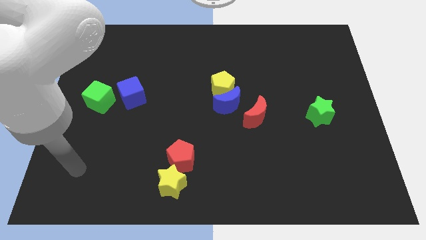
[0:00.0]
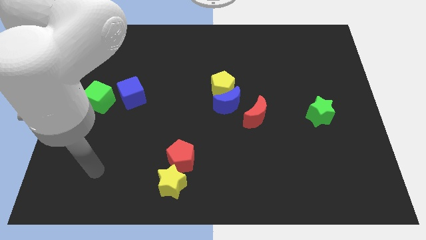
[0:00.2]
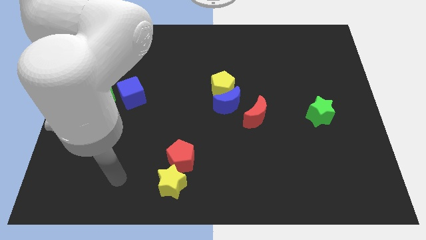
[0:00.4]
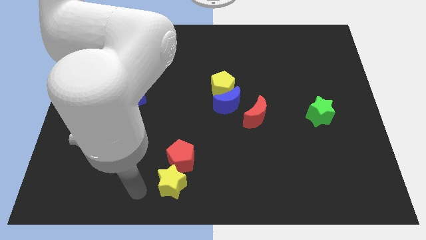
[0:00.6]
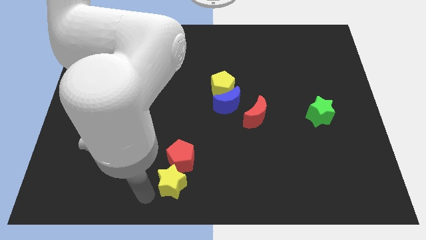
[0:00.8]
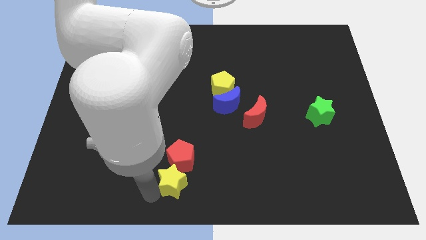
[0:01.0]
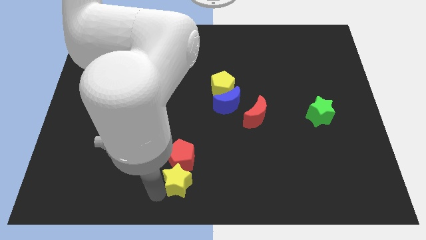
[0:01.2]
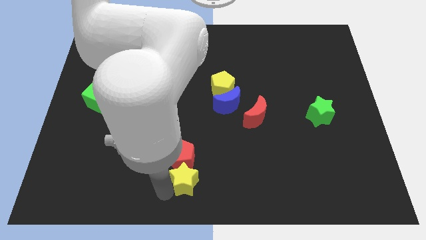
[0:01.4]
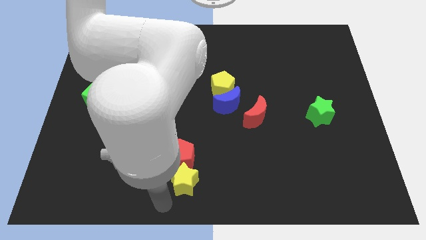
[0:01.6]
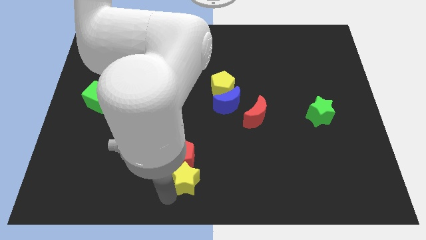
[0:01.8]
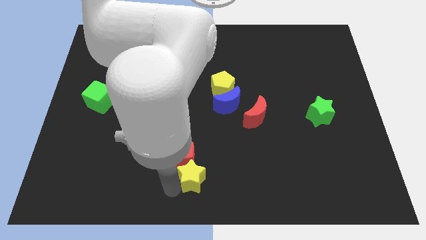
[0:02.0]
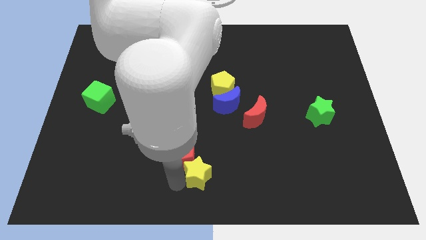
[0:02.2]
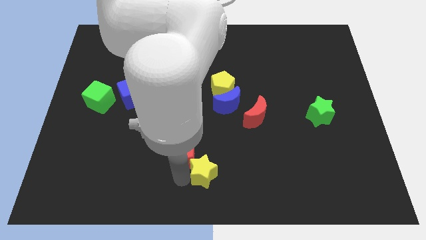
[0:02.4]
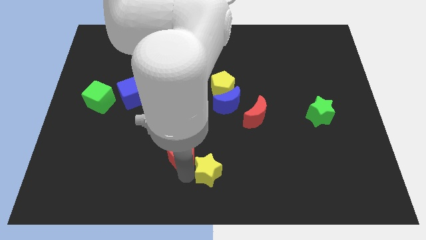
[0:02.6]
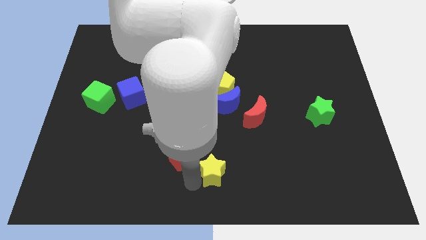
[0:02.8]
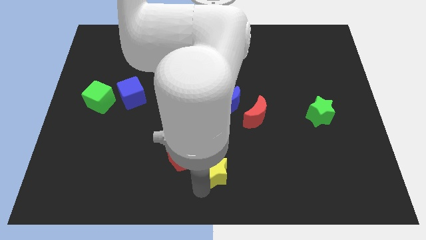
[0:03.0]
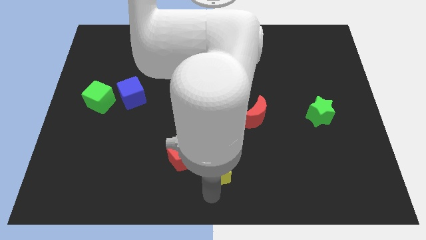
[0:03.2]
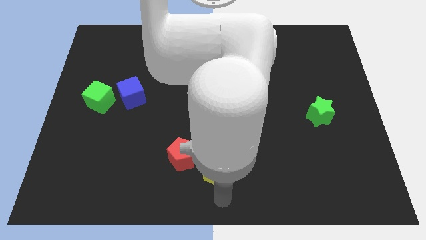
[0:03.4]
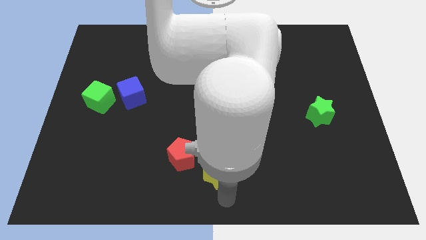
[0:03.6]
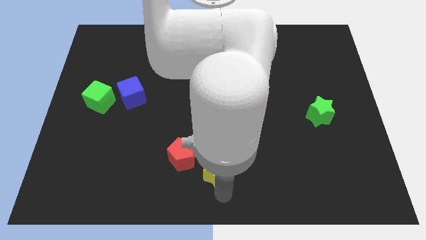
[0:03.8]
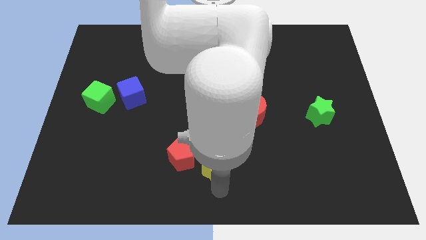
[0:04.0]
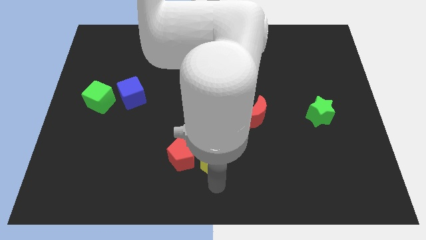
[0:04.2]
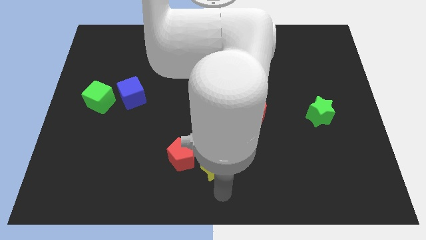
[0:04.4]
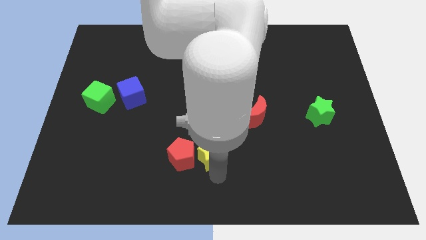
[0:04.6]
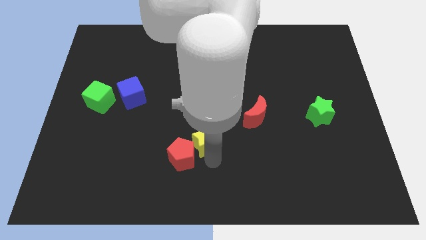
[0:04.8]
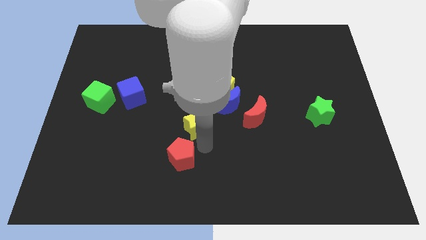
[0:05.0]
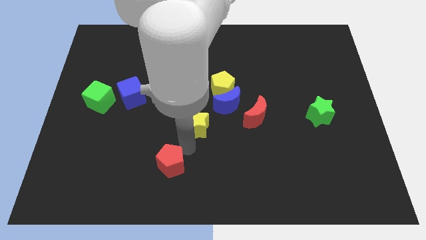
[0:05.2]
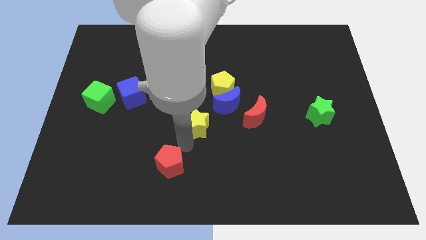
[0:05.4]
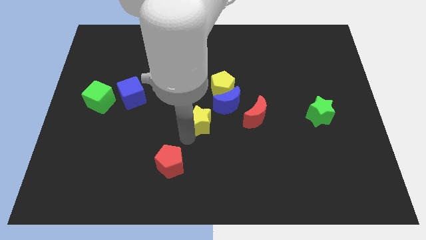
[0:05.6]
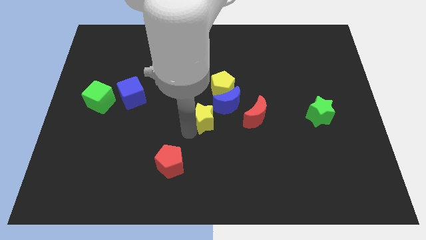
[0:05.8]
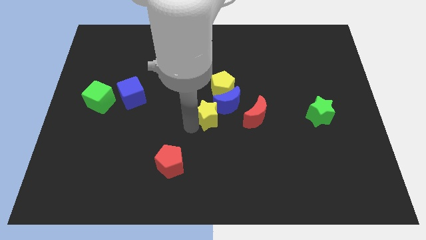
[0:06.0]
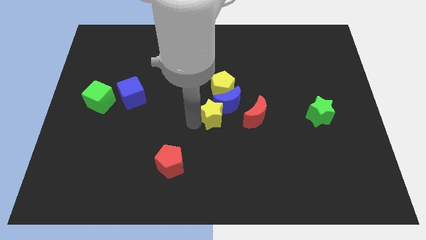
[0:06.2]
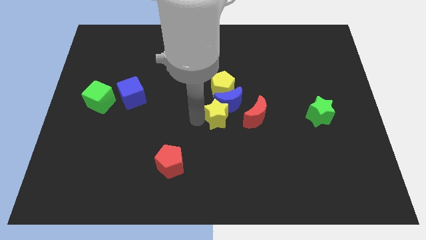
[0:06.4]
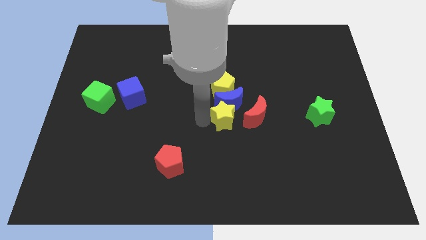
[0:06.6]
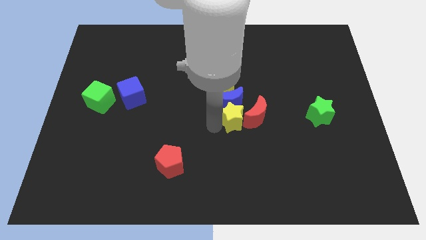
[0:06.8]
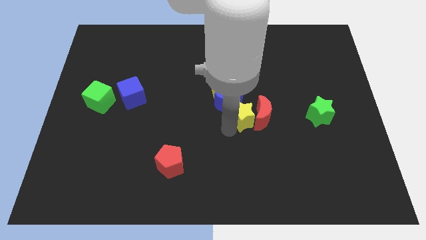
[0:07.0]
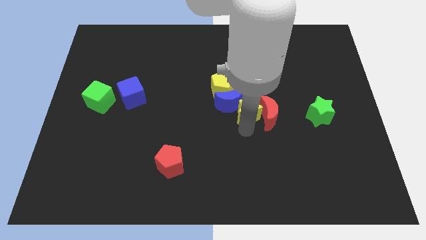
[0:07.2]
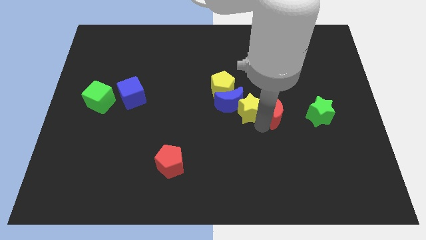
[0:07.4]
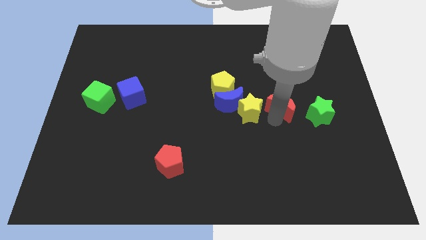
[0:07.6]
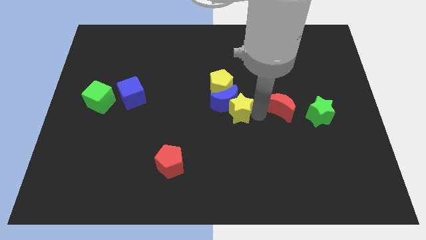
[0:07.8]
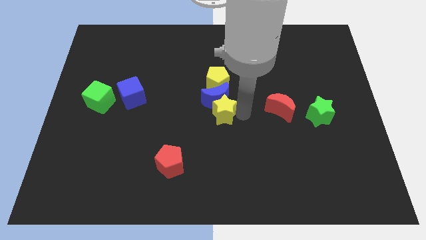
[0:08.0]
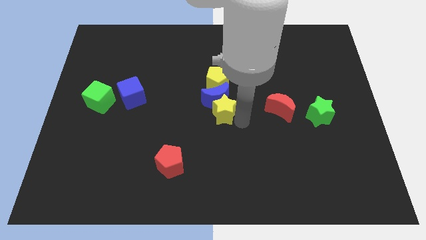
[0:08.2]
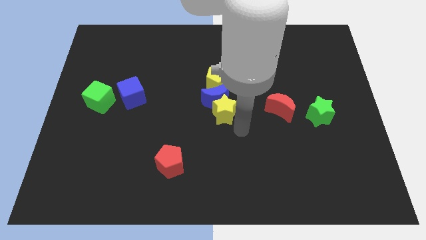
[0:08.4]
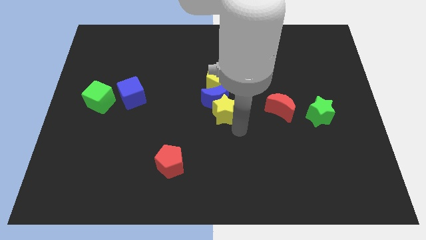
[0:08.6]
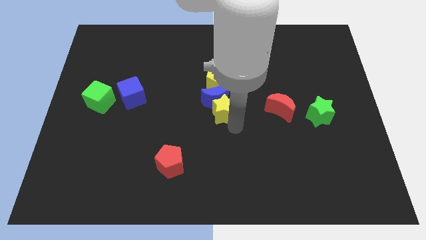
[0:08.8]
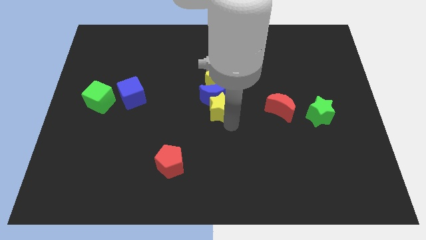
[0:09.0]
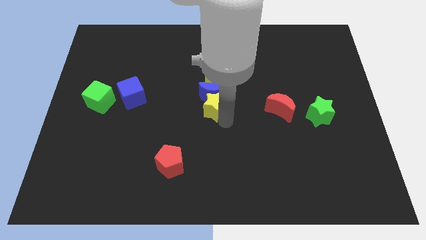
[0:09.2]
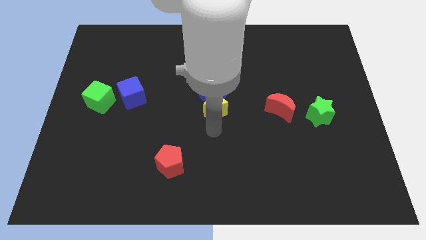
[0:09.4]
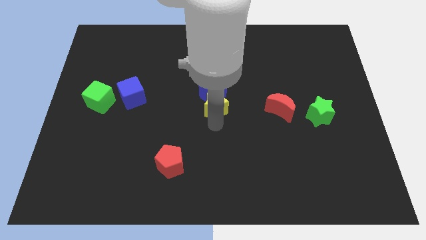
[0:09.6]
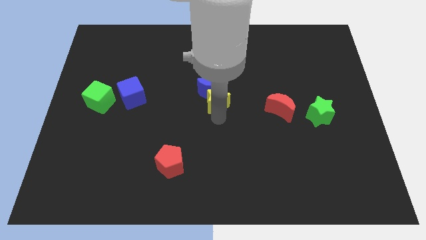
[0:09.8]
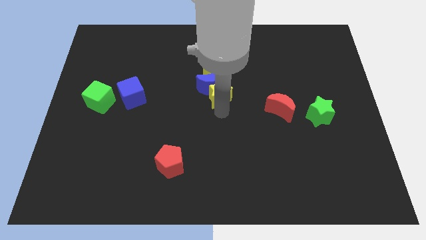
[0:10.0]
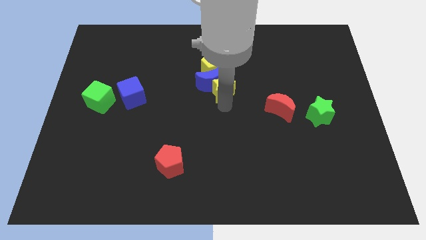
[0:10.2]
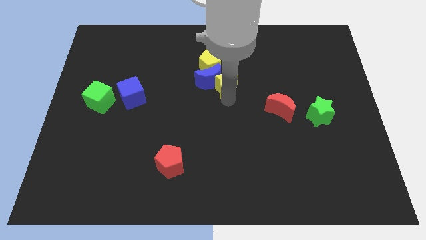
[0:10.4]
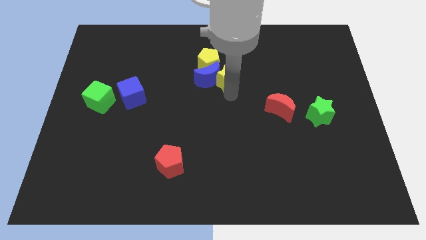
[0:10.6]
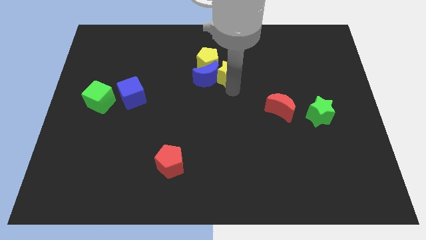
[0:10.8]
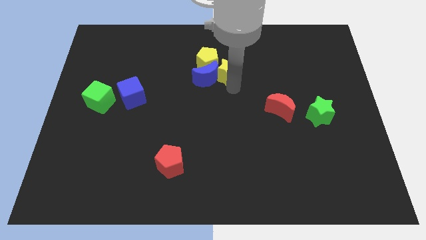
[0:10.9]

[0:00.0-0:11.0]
move the yellow star close to the yellow pentagon

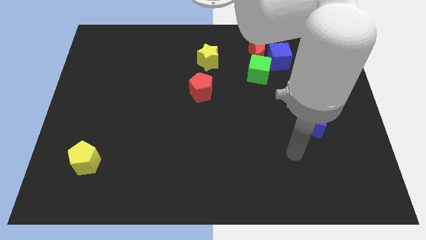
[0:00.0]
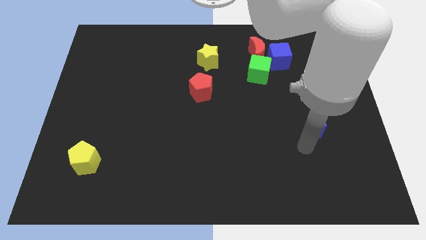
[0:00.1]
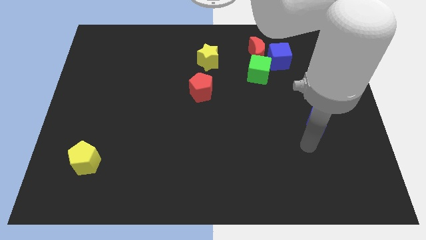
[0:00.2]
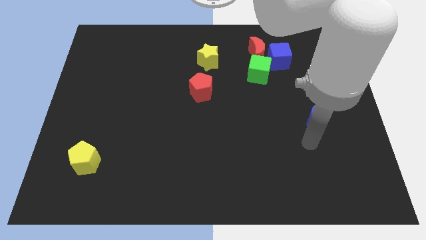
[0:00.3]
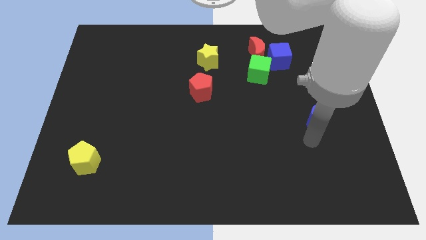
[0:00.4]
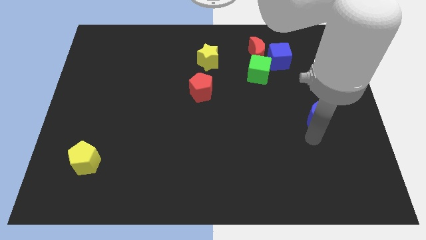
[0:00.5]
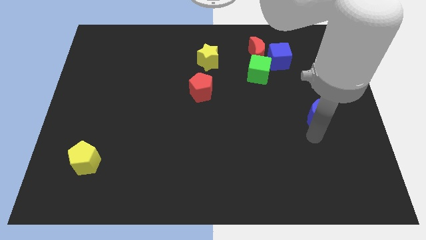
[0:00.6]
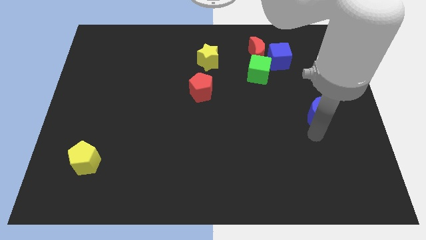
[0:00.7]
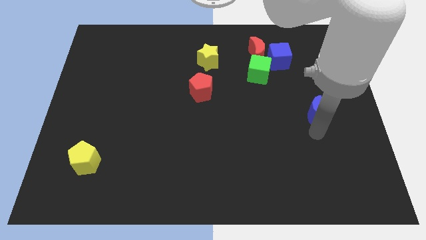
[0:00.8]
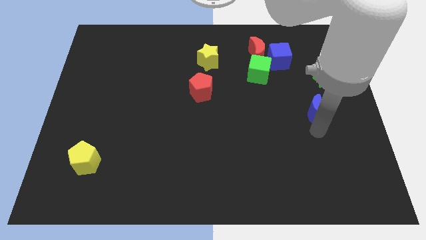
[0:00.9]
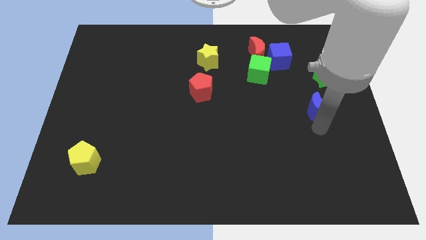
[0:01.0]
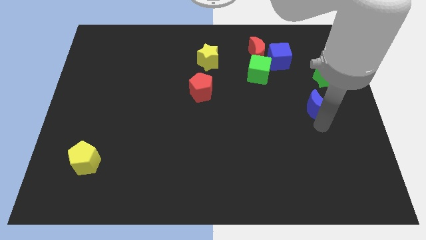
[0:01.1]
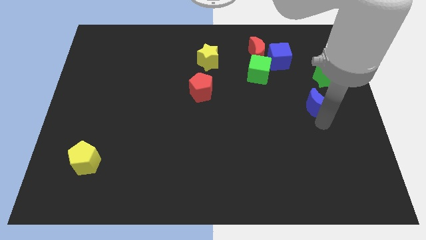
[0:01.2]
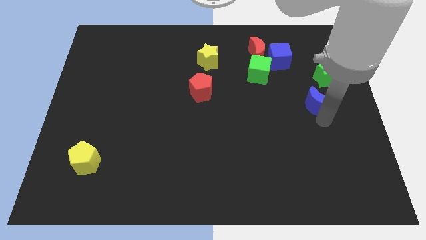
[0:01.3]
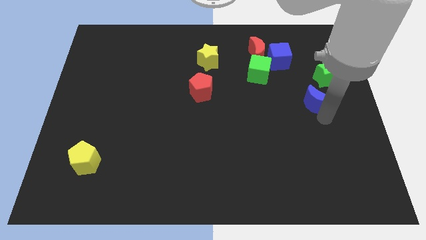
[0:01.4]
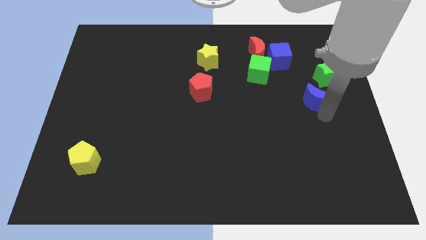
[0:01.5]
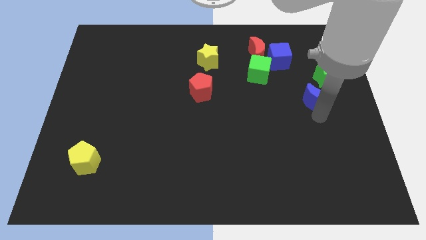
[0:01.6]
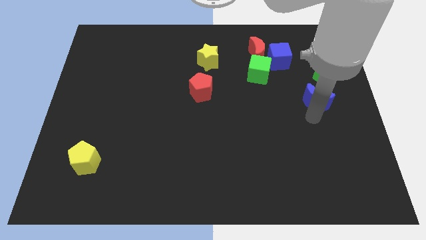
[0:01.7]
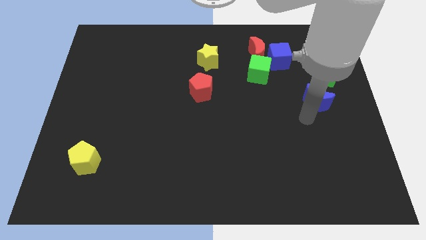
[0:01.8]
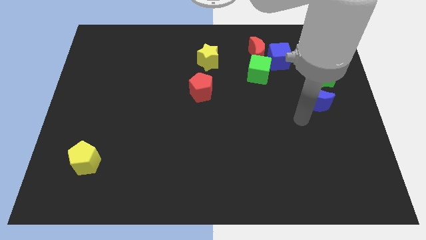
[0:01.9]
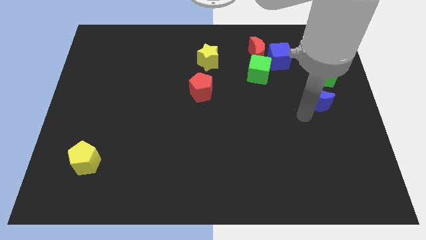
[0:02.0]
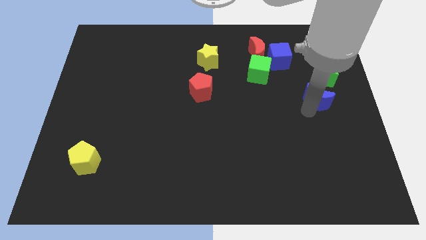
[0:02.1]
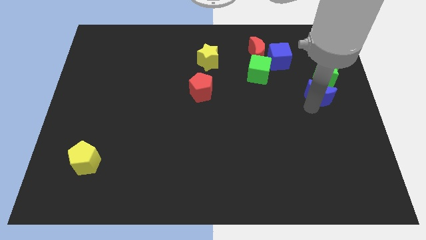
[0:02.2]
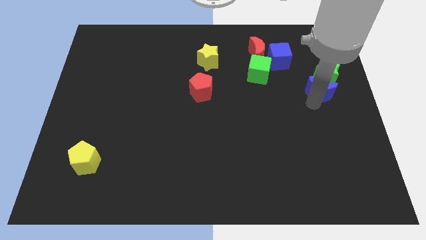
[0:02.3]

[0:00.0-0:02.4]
push the blue moon close to the green star
